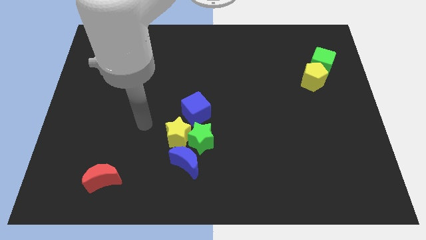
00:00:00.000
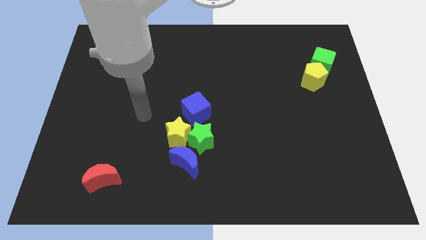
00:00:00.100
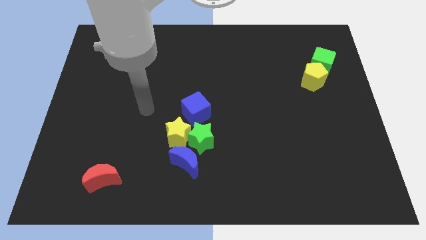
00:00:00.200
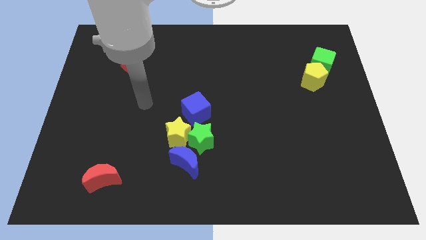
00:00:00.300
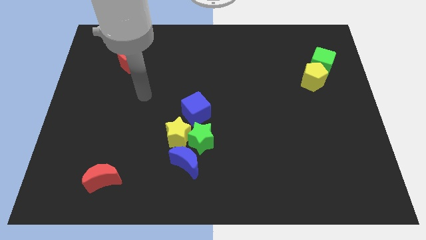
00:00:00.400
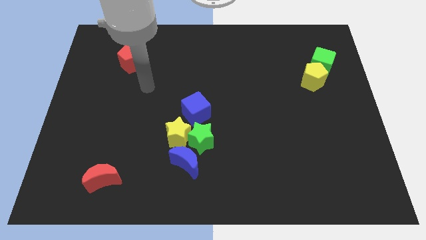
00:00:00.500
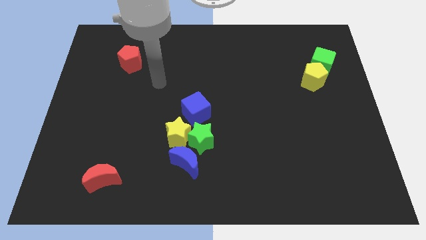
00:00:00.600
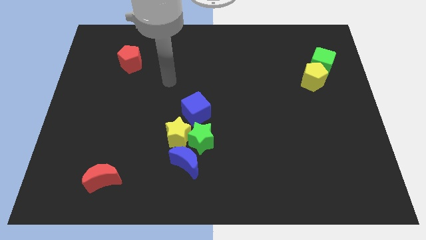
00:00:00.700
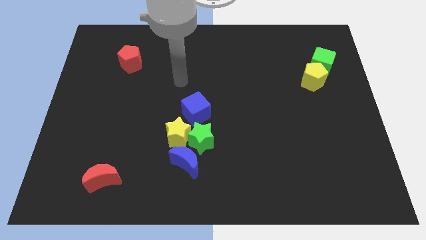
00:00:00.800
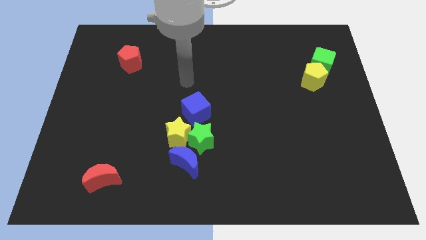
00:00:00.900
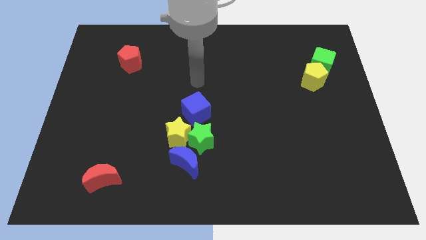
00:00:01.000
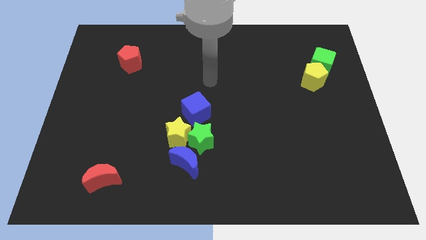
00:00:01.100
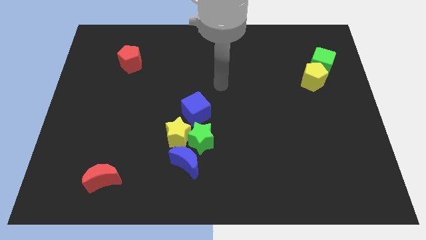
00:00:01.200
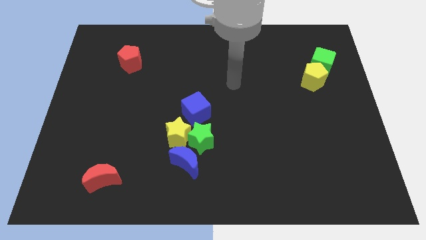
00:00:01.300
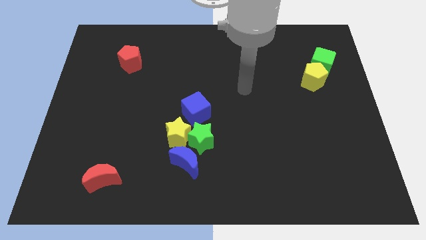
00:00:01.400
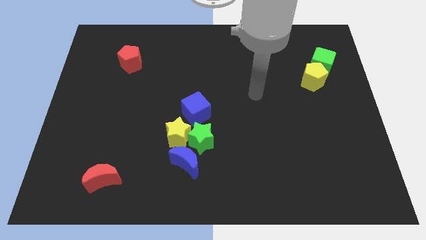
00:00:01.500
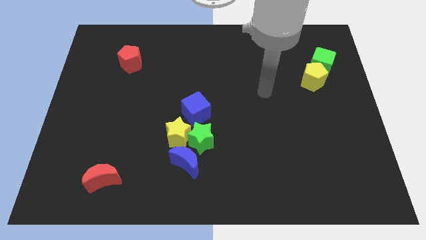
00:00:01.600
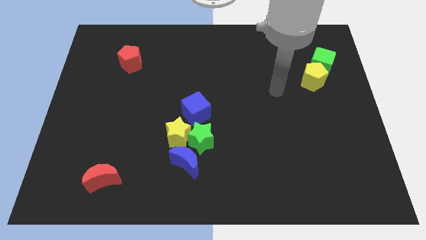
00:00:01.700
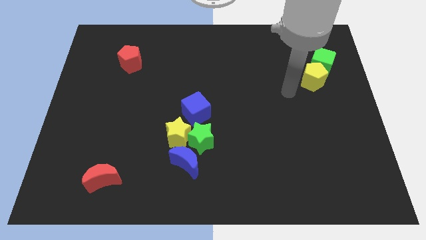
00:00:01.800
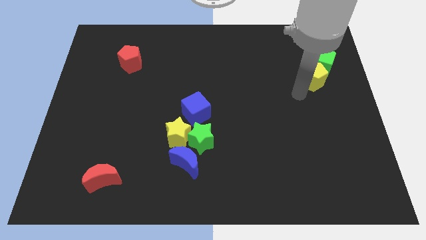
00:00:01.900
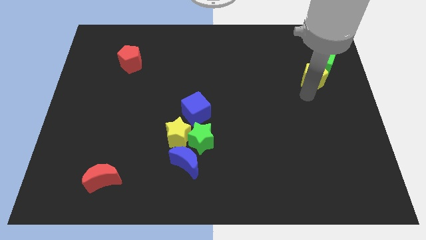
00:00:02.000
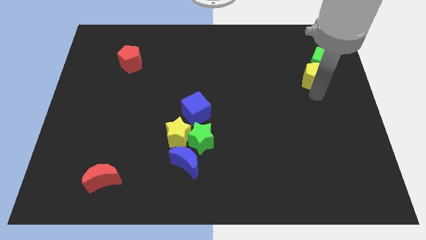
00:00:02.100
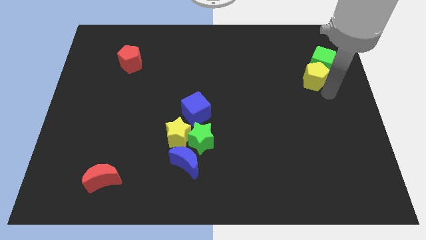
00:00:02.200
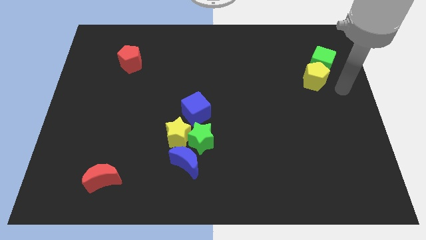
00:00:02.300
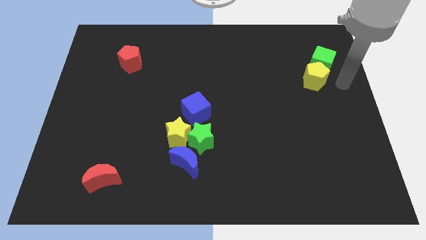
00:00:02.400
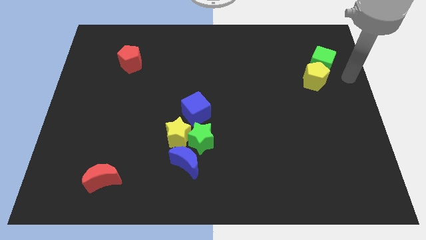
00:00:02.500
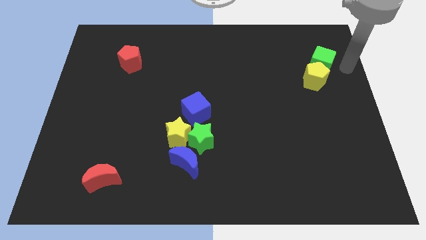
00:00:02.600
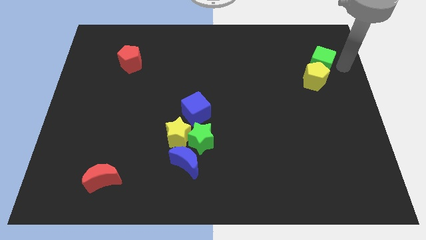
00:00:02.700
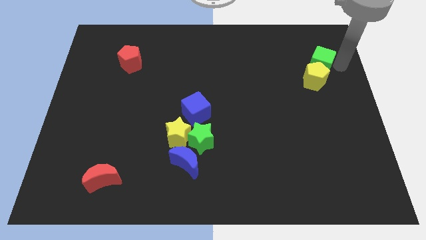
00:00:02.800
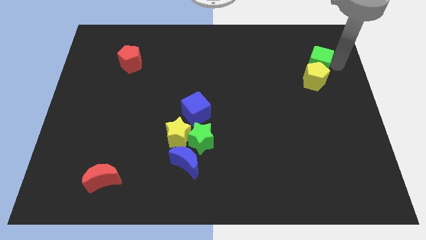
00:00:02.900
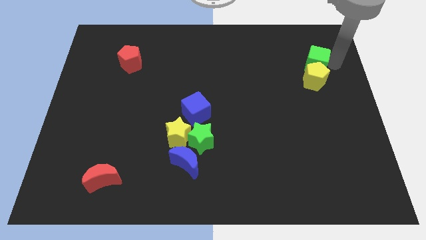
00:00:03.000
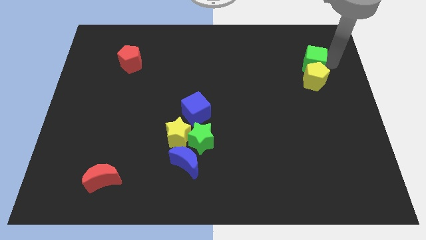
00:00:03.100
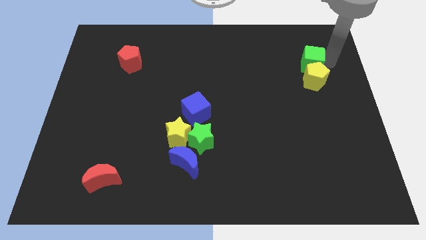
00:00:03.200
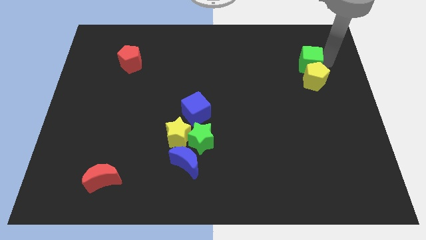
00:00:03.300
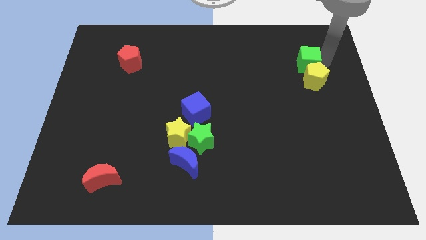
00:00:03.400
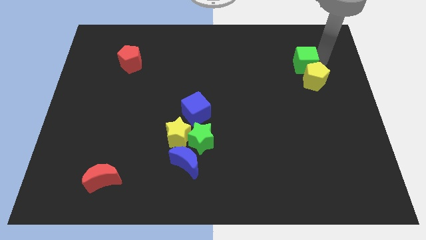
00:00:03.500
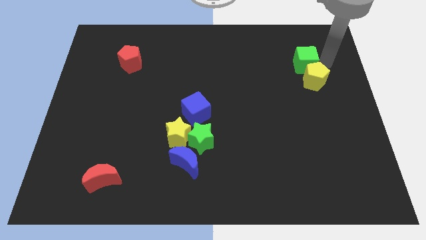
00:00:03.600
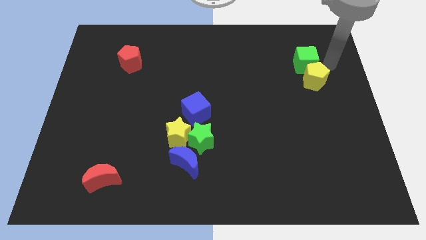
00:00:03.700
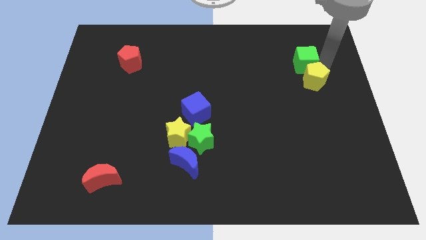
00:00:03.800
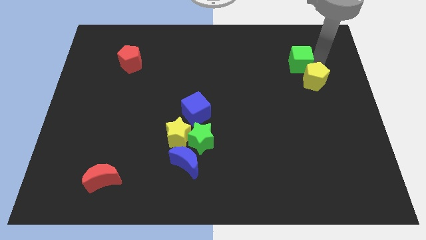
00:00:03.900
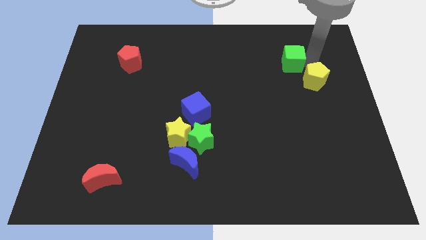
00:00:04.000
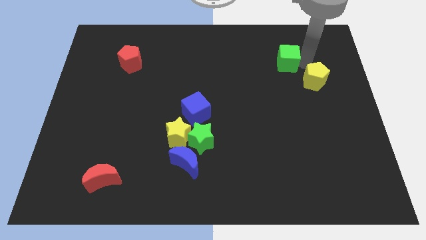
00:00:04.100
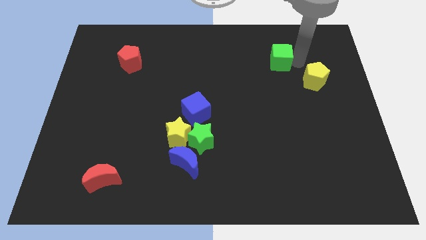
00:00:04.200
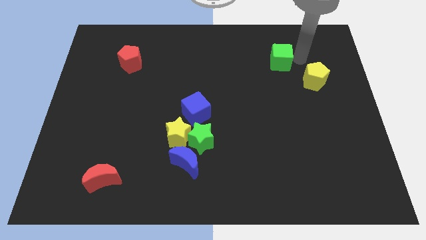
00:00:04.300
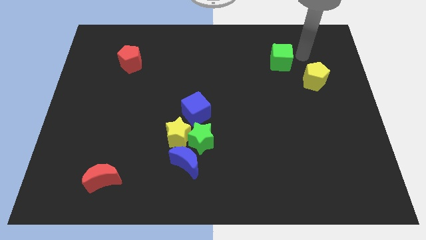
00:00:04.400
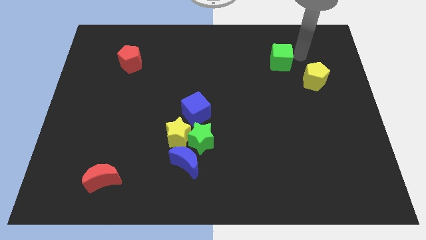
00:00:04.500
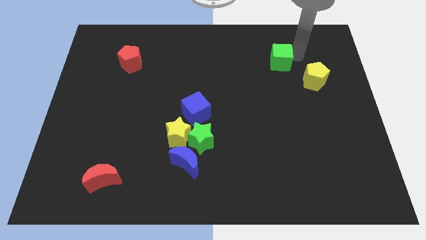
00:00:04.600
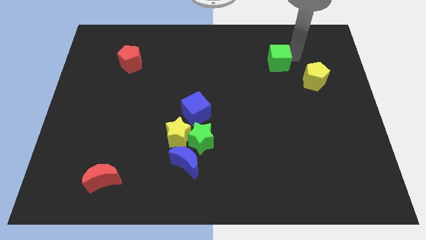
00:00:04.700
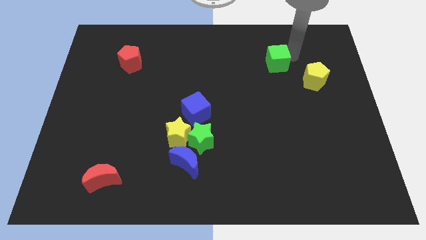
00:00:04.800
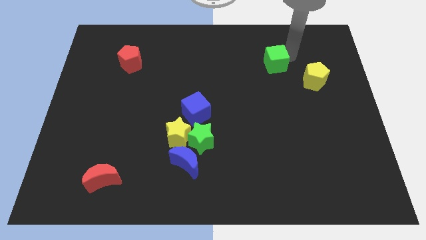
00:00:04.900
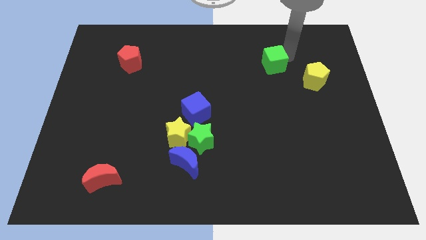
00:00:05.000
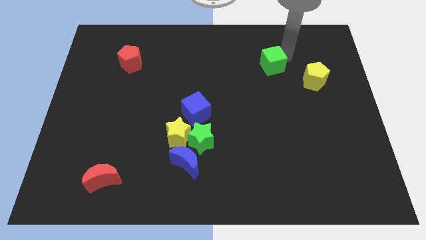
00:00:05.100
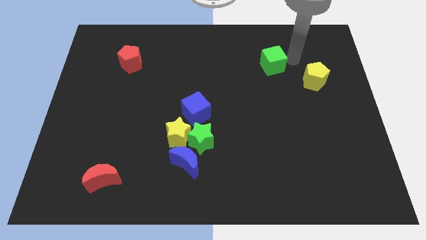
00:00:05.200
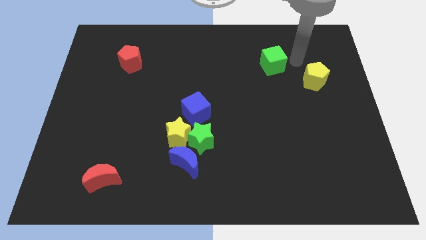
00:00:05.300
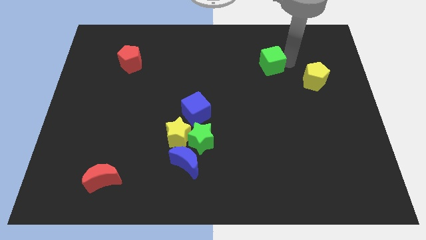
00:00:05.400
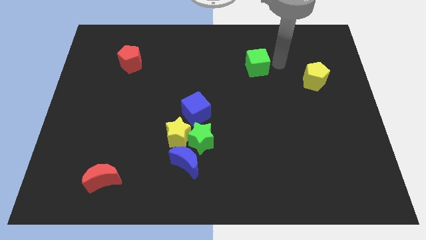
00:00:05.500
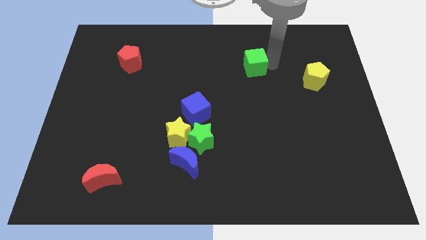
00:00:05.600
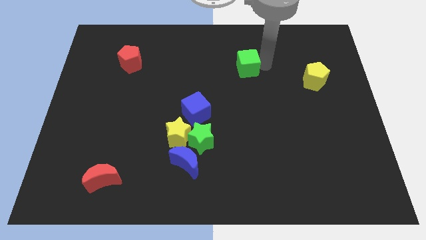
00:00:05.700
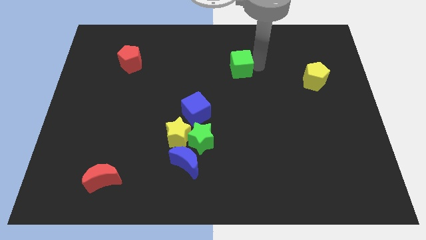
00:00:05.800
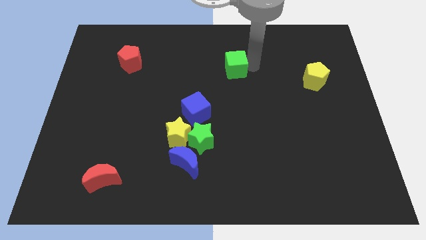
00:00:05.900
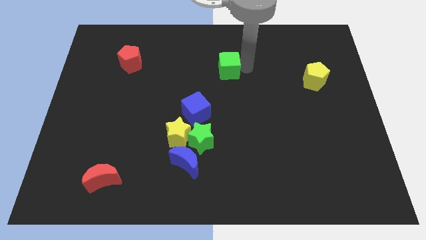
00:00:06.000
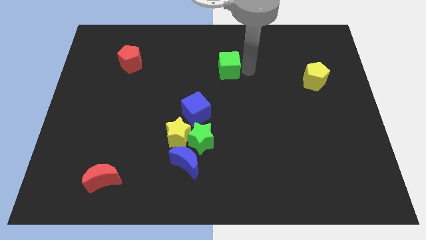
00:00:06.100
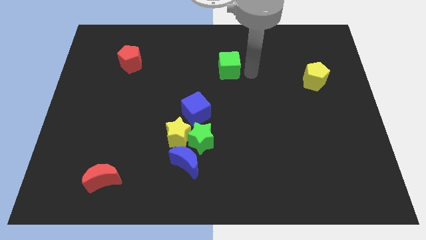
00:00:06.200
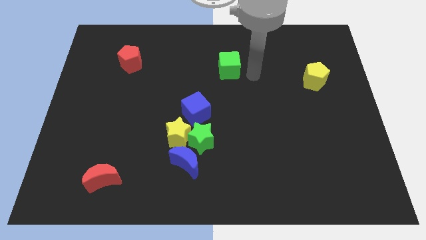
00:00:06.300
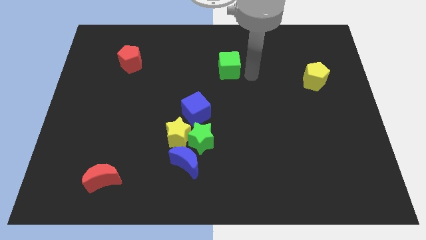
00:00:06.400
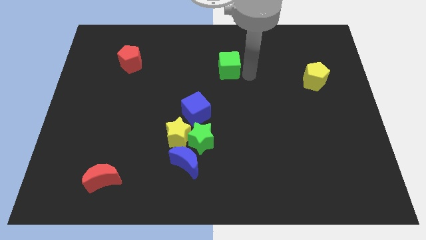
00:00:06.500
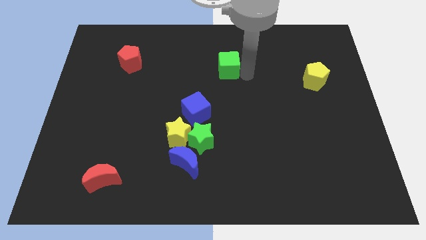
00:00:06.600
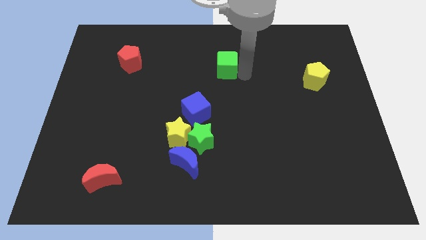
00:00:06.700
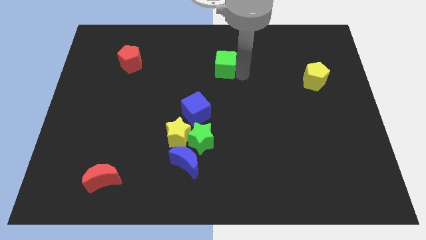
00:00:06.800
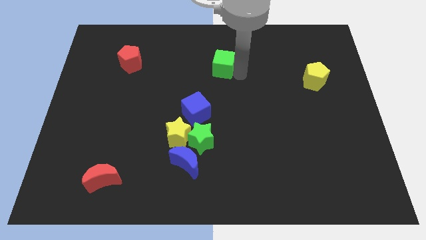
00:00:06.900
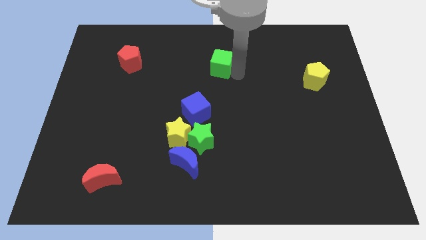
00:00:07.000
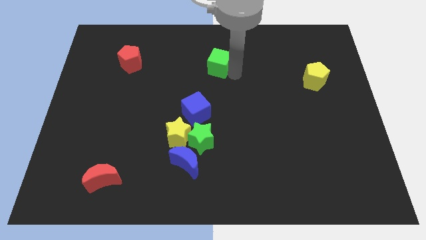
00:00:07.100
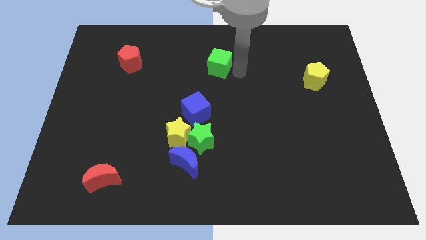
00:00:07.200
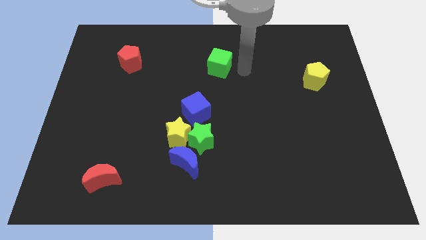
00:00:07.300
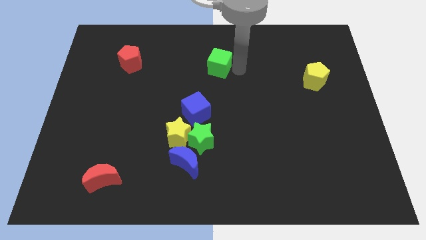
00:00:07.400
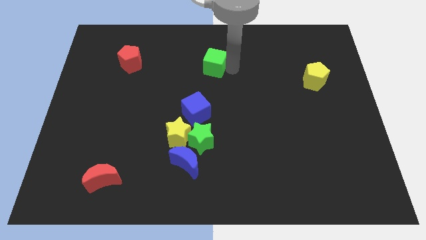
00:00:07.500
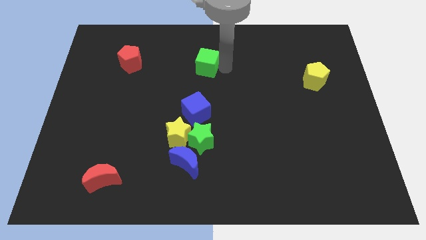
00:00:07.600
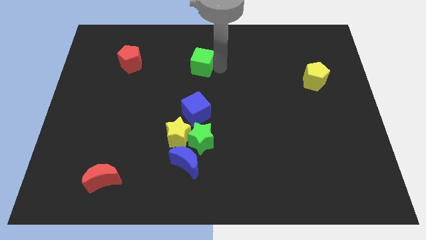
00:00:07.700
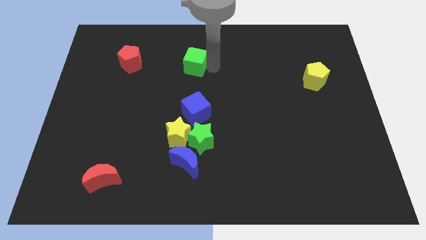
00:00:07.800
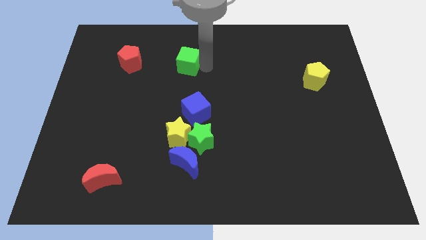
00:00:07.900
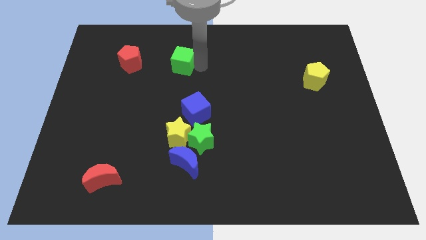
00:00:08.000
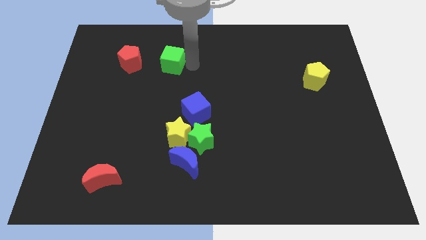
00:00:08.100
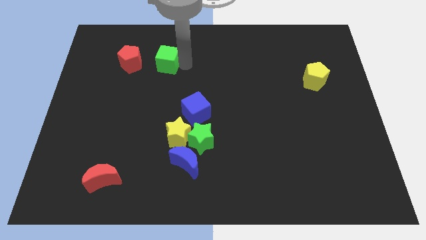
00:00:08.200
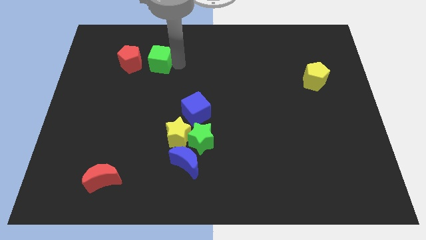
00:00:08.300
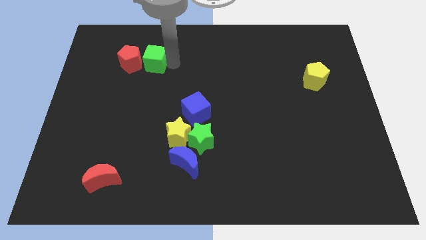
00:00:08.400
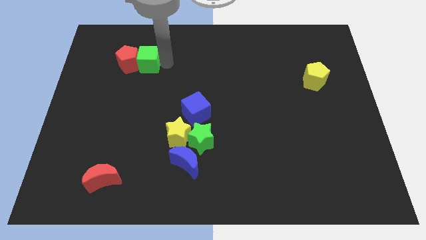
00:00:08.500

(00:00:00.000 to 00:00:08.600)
put the green cube next to the red pentagon
